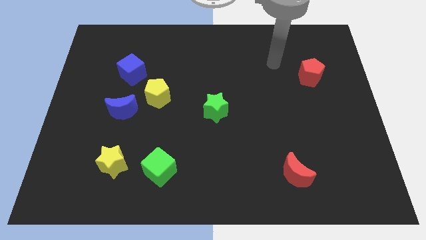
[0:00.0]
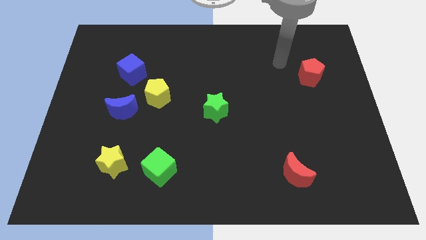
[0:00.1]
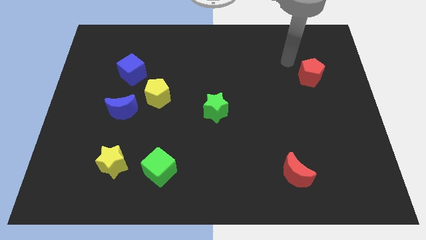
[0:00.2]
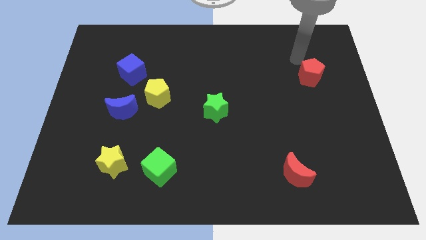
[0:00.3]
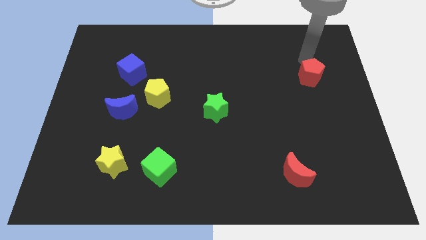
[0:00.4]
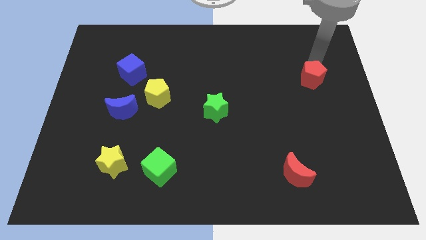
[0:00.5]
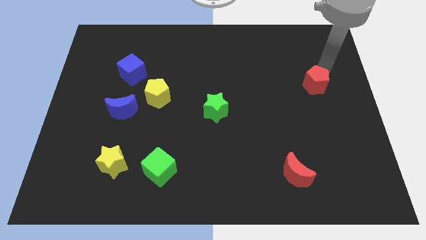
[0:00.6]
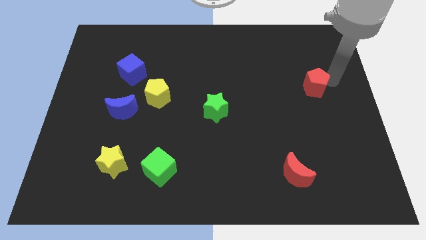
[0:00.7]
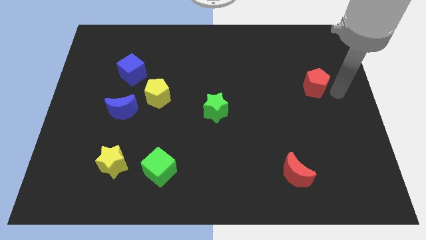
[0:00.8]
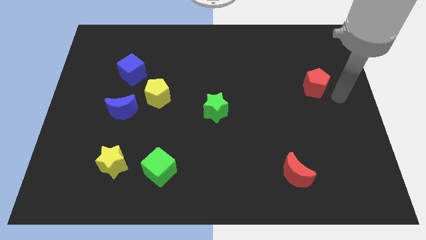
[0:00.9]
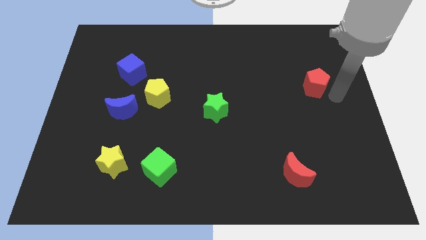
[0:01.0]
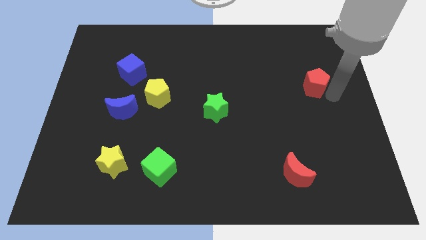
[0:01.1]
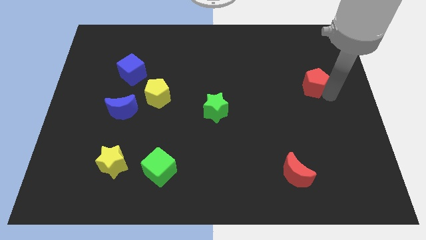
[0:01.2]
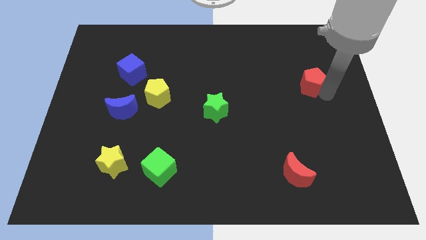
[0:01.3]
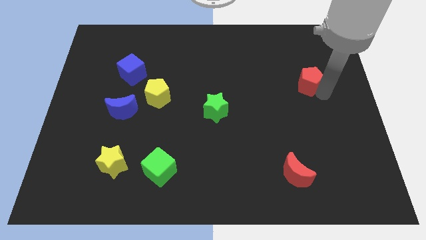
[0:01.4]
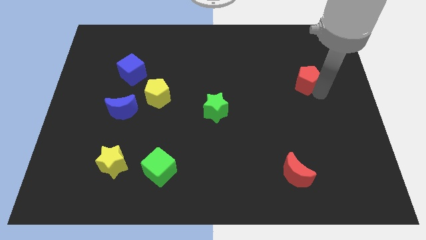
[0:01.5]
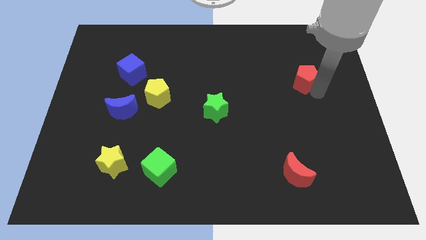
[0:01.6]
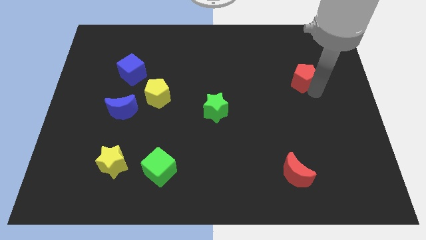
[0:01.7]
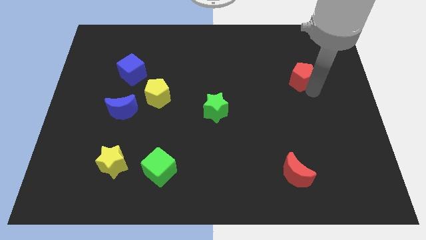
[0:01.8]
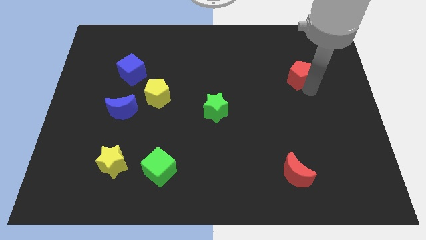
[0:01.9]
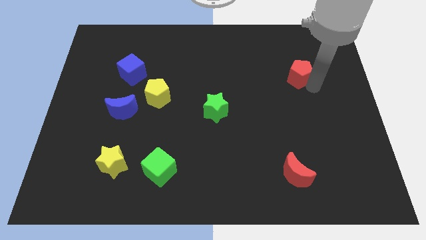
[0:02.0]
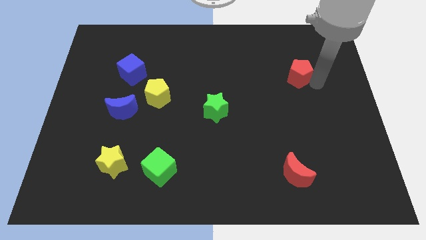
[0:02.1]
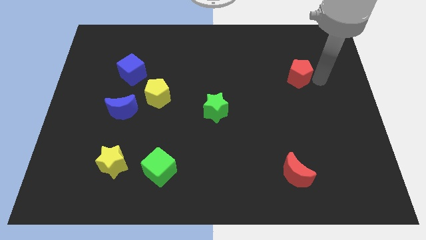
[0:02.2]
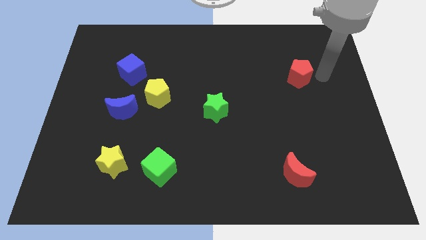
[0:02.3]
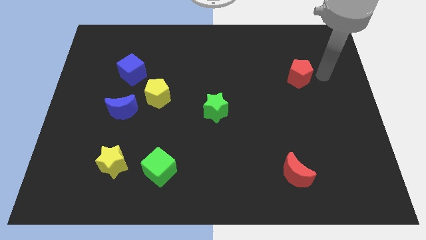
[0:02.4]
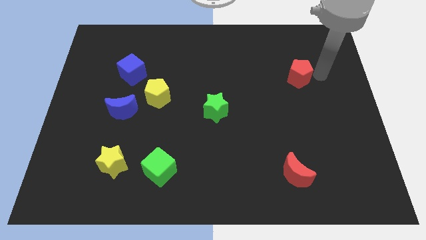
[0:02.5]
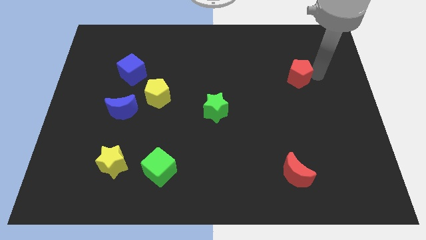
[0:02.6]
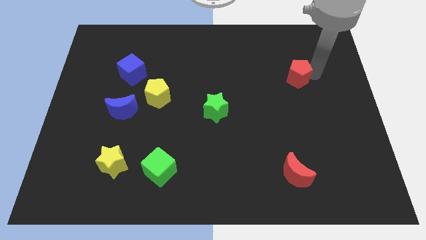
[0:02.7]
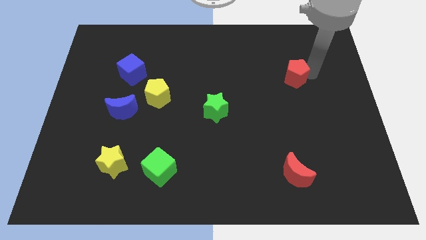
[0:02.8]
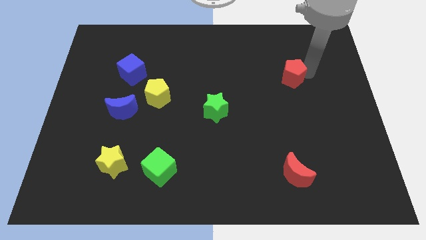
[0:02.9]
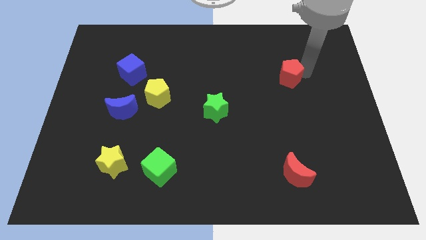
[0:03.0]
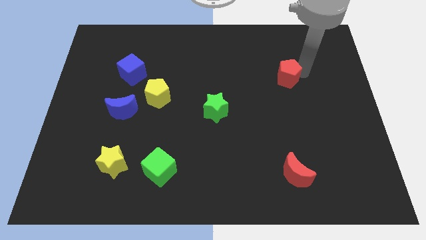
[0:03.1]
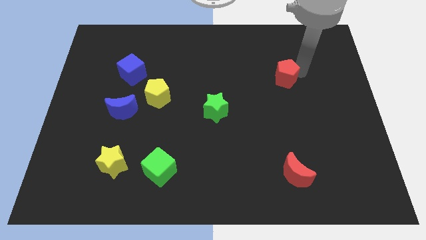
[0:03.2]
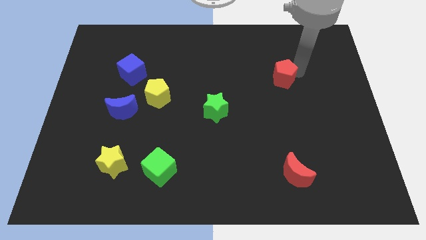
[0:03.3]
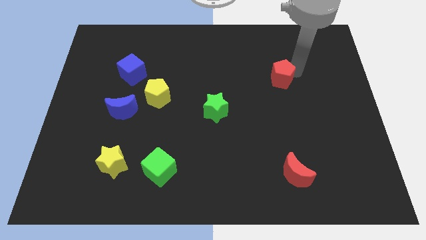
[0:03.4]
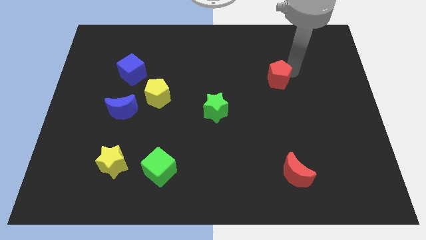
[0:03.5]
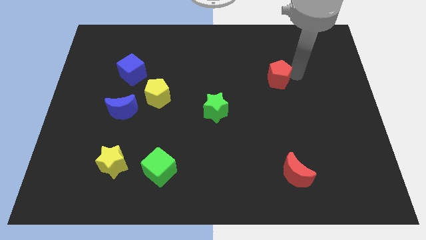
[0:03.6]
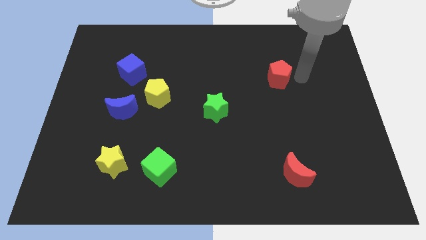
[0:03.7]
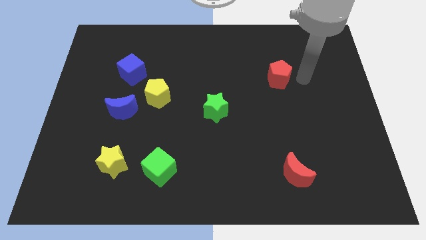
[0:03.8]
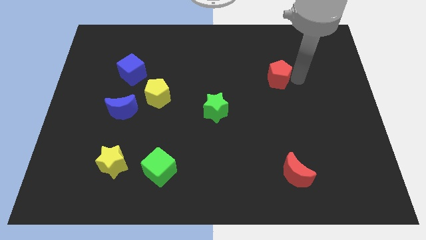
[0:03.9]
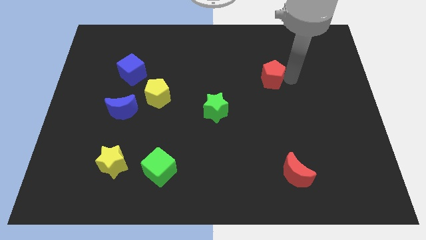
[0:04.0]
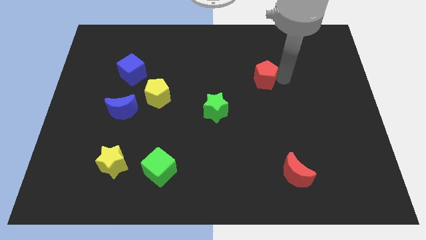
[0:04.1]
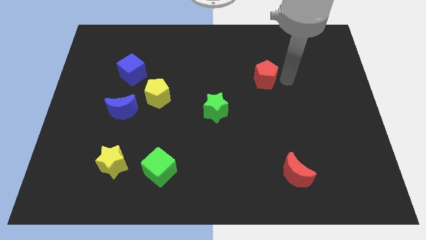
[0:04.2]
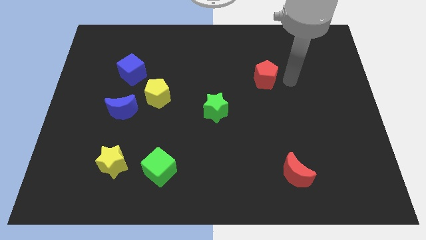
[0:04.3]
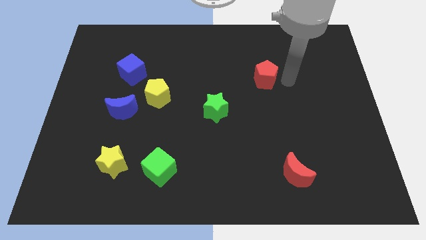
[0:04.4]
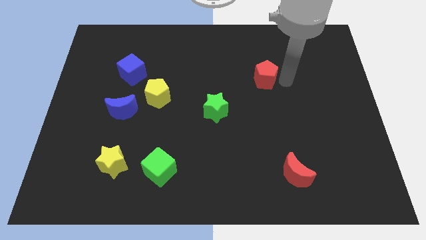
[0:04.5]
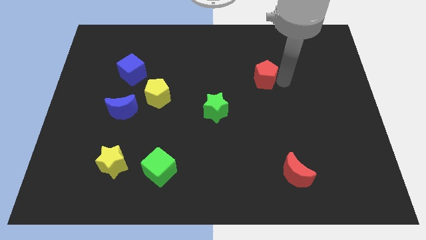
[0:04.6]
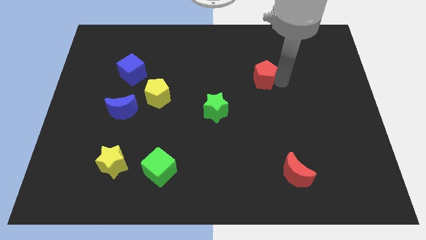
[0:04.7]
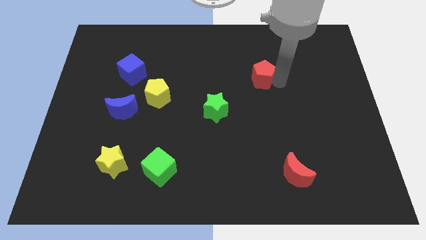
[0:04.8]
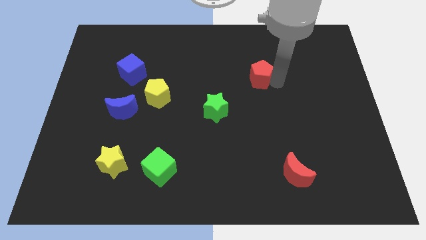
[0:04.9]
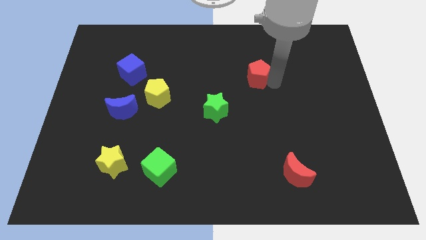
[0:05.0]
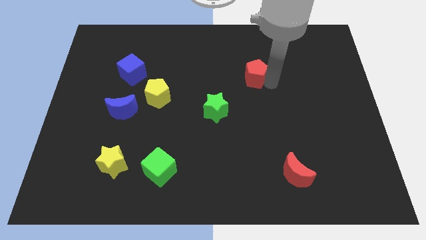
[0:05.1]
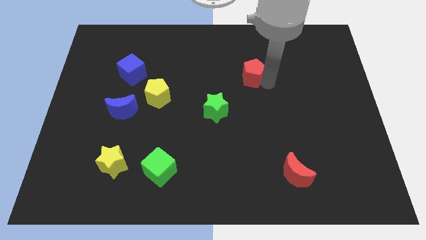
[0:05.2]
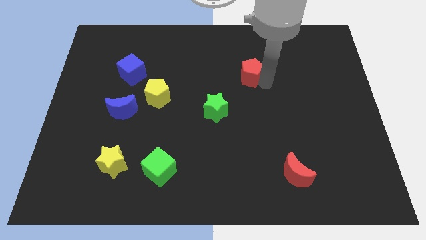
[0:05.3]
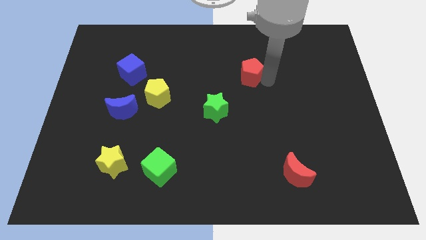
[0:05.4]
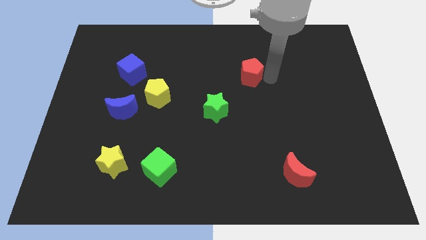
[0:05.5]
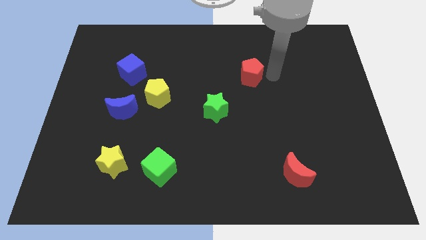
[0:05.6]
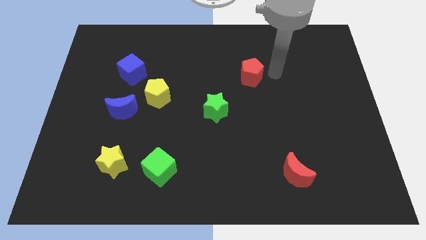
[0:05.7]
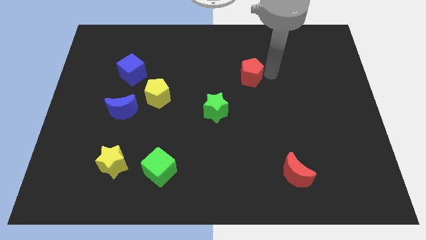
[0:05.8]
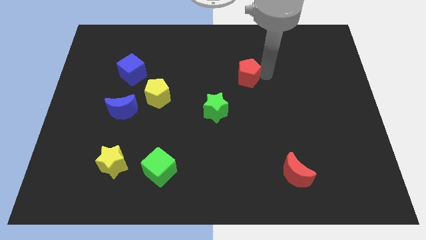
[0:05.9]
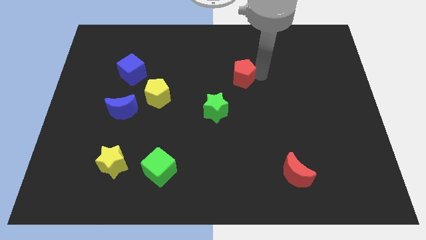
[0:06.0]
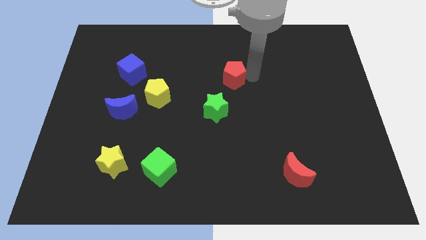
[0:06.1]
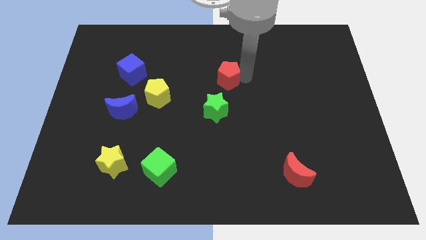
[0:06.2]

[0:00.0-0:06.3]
push the red pentagon to the left

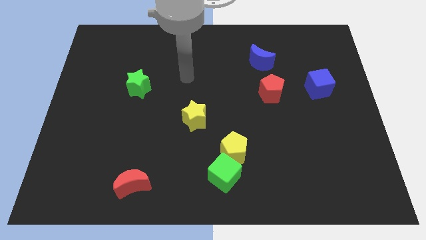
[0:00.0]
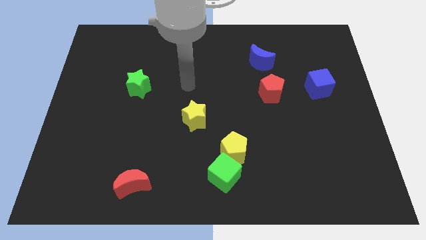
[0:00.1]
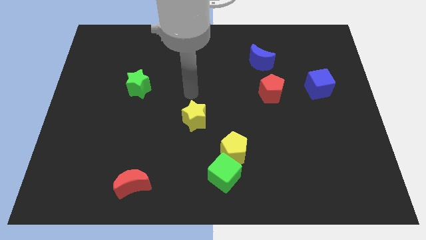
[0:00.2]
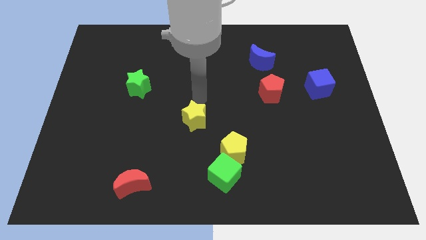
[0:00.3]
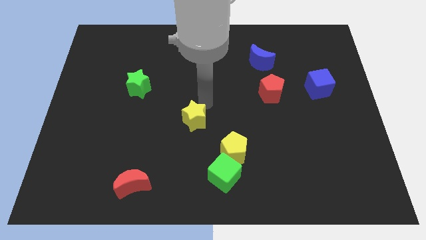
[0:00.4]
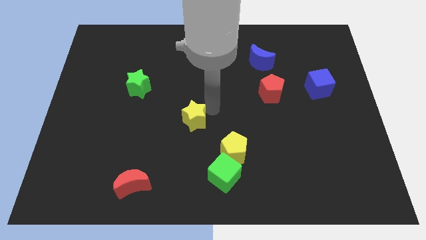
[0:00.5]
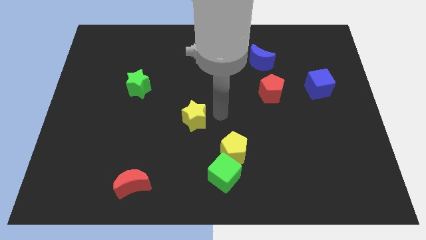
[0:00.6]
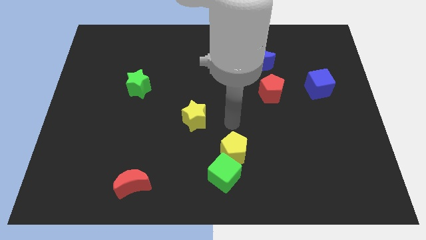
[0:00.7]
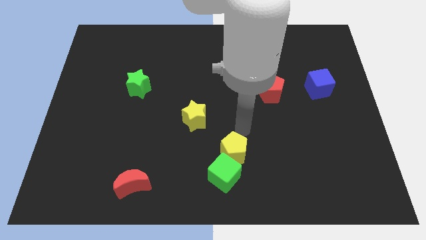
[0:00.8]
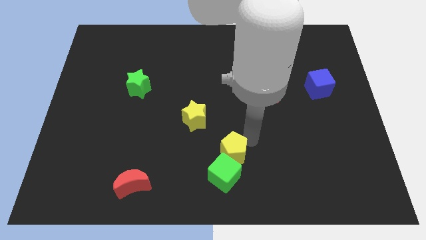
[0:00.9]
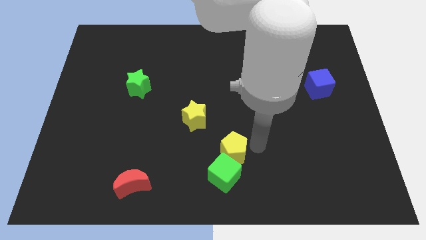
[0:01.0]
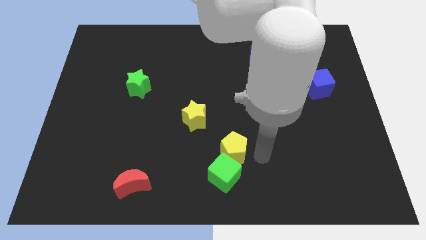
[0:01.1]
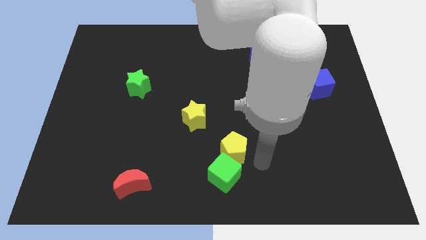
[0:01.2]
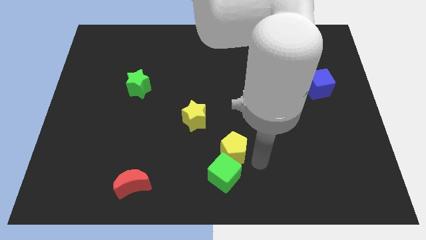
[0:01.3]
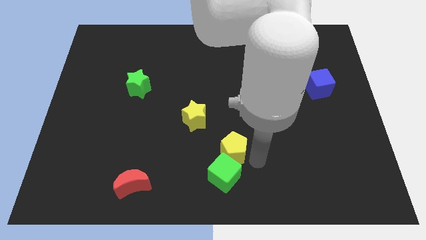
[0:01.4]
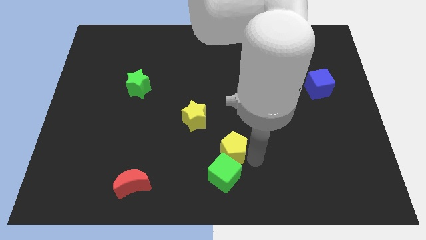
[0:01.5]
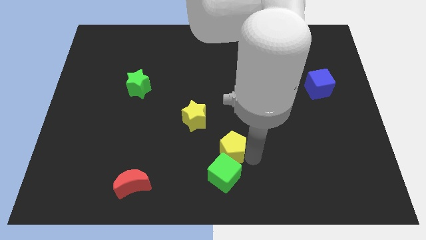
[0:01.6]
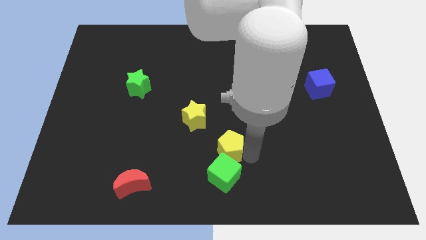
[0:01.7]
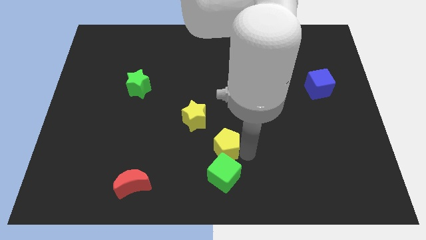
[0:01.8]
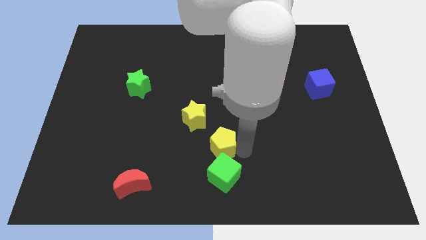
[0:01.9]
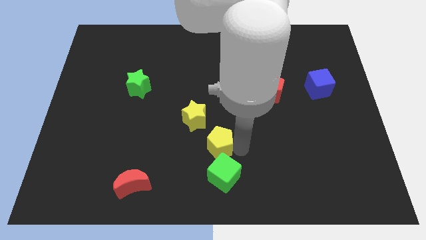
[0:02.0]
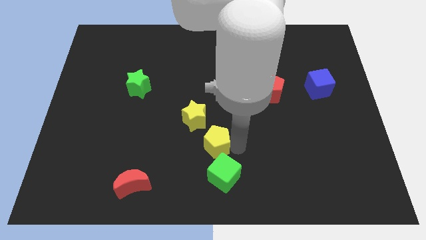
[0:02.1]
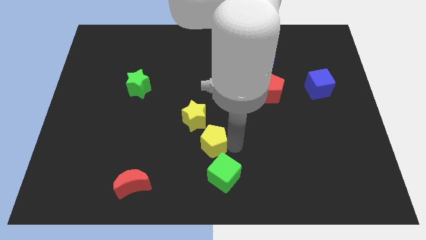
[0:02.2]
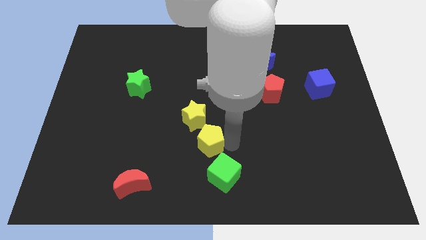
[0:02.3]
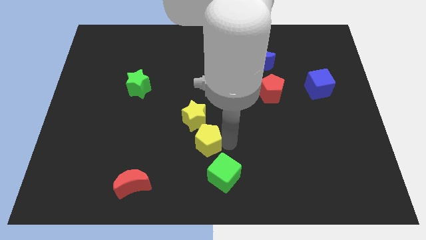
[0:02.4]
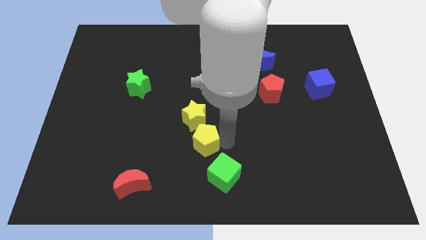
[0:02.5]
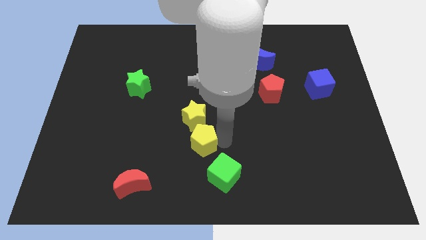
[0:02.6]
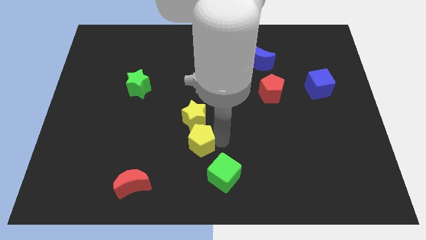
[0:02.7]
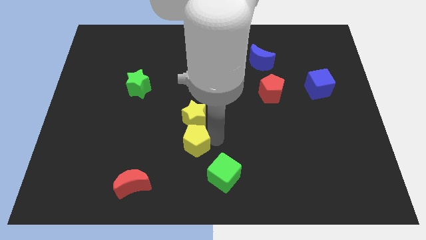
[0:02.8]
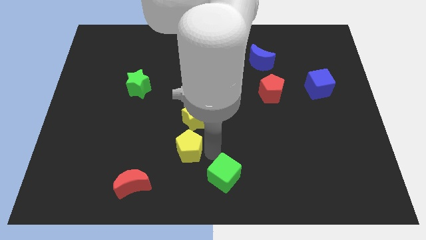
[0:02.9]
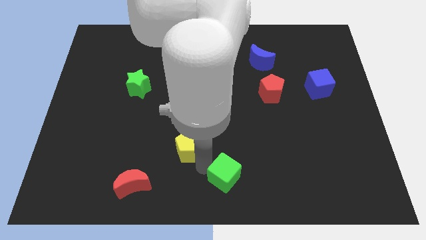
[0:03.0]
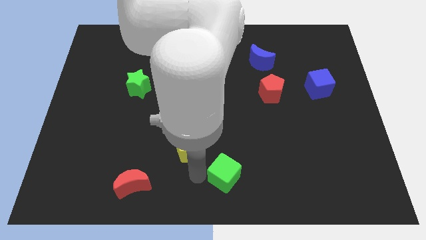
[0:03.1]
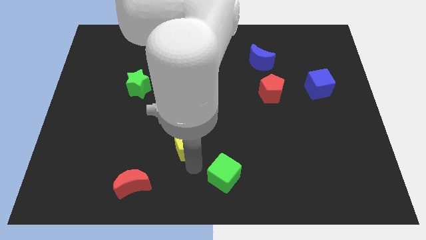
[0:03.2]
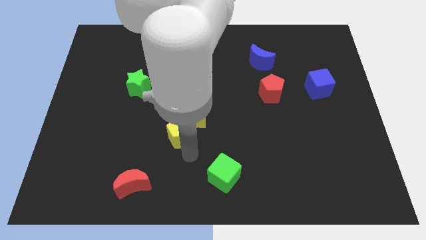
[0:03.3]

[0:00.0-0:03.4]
slightly move the yellow pentagon up and to the left
